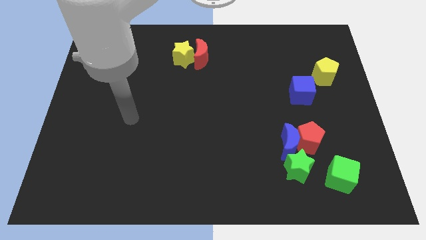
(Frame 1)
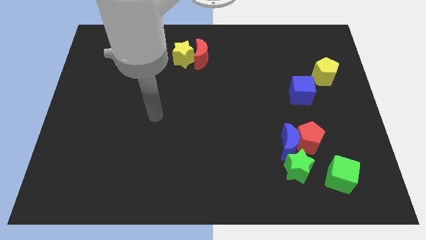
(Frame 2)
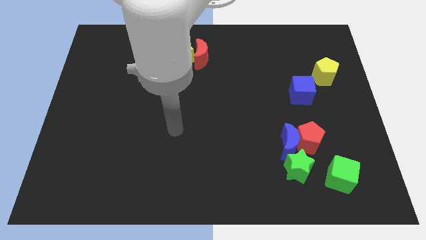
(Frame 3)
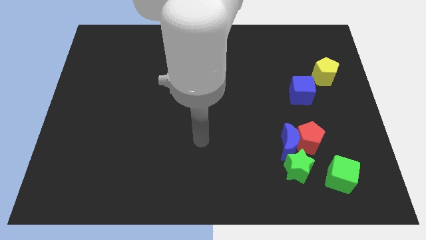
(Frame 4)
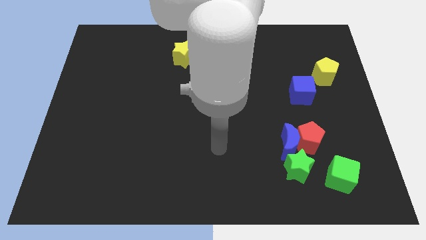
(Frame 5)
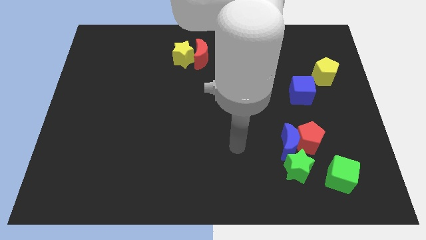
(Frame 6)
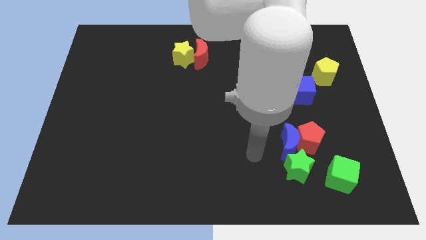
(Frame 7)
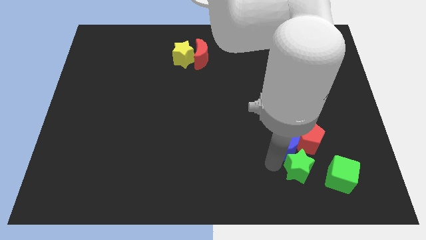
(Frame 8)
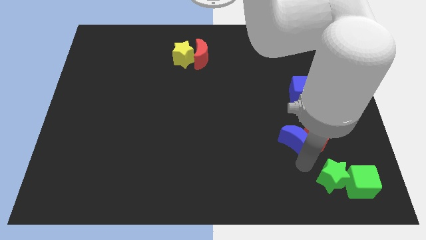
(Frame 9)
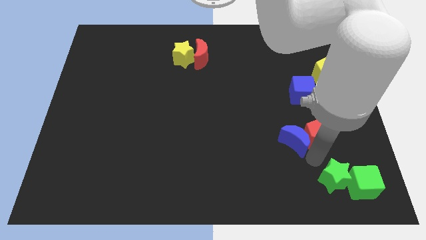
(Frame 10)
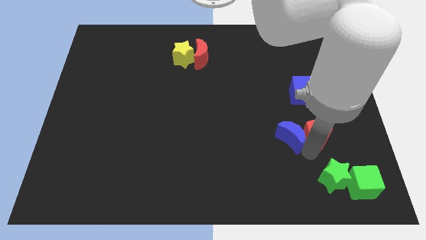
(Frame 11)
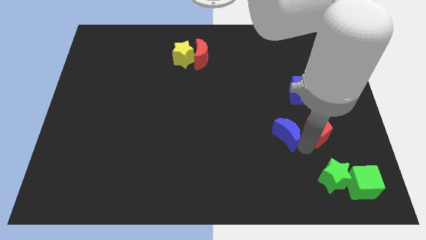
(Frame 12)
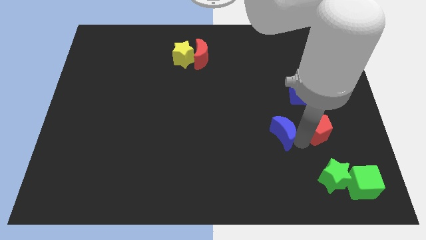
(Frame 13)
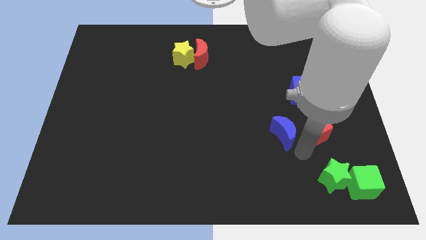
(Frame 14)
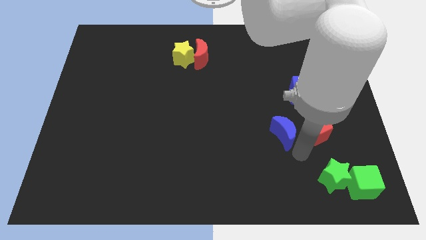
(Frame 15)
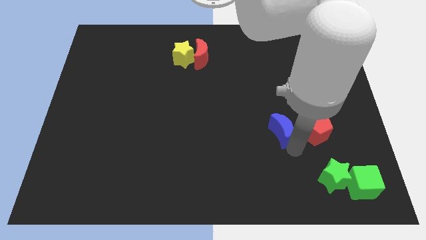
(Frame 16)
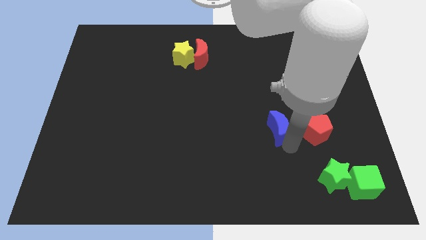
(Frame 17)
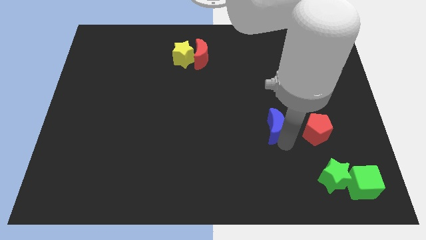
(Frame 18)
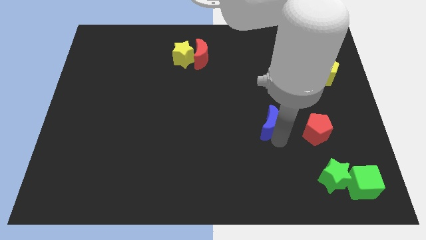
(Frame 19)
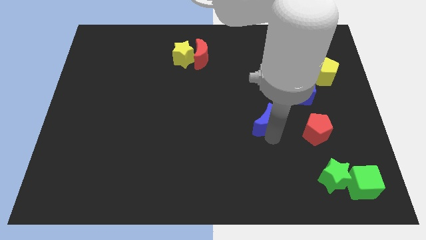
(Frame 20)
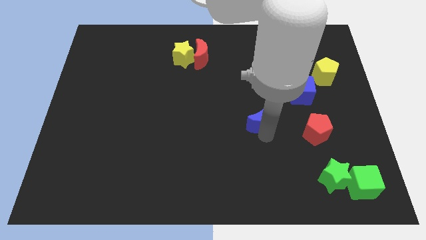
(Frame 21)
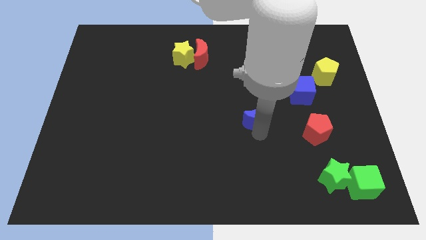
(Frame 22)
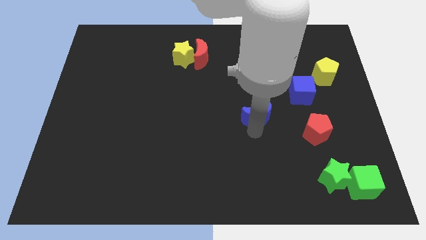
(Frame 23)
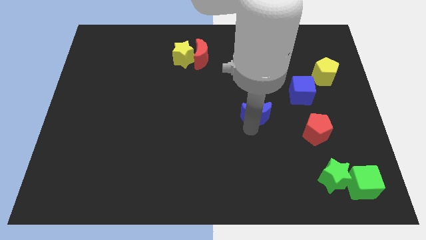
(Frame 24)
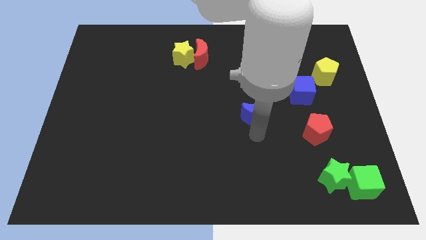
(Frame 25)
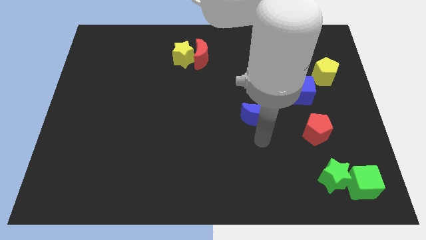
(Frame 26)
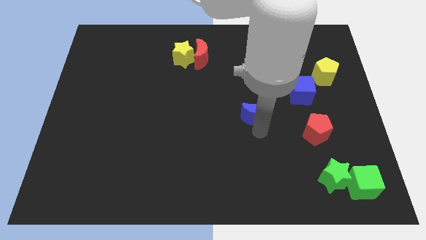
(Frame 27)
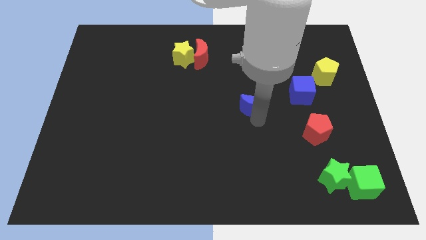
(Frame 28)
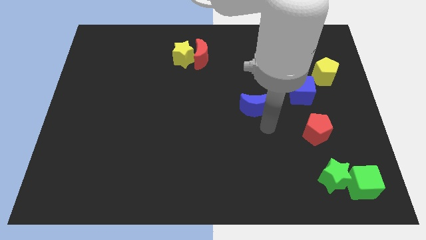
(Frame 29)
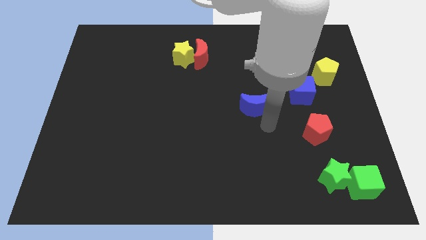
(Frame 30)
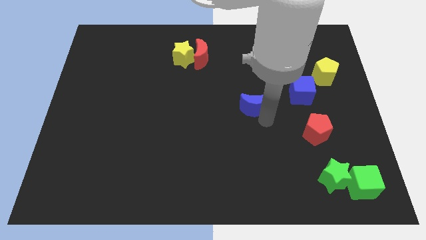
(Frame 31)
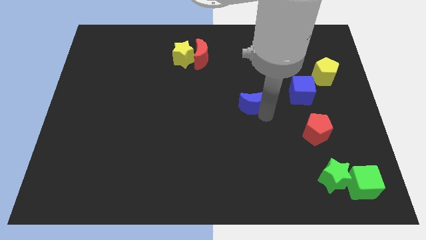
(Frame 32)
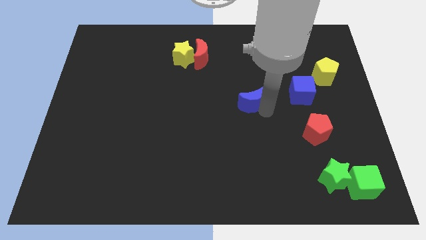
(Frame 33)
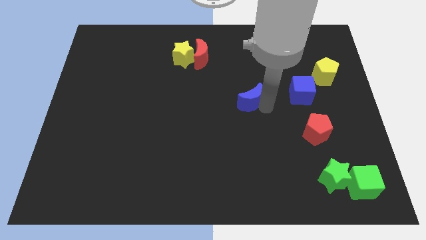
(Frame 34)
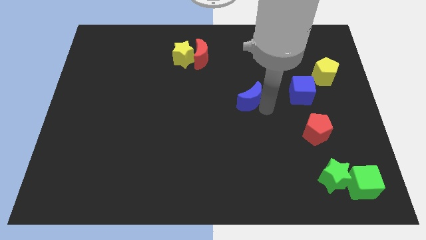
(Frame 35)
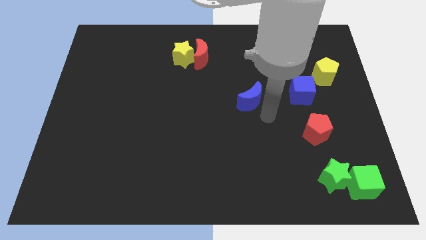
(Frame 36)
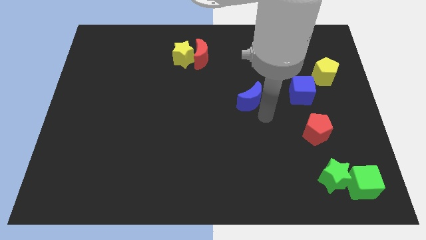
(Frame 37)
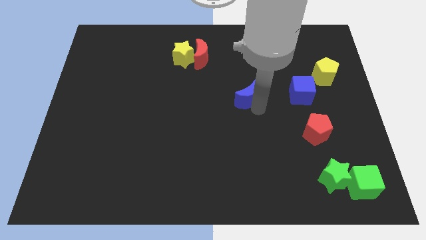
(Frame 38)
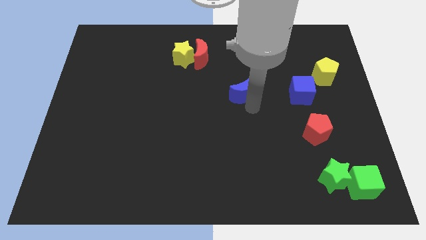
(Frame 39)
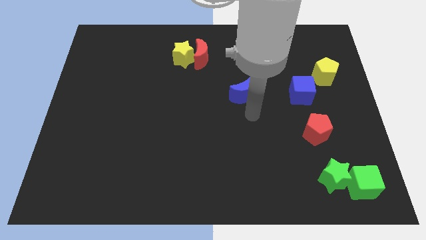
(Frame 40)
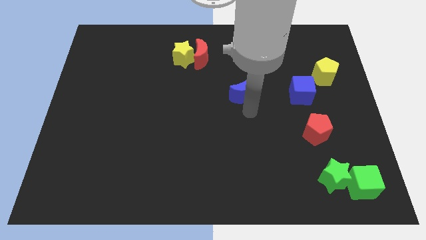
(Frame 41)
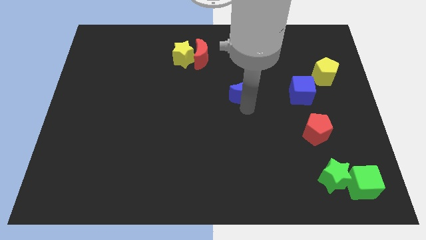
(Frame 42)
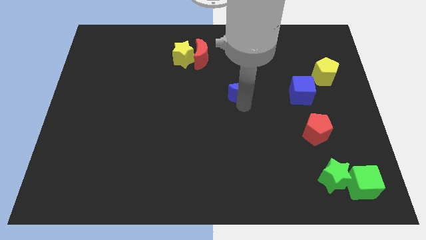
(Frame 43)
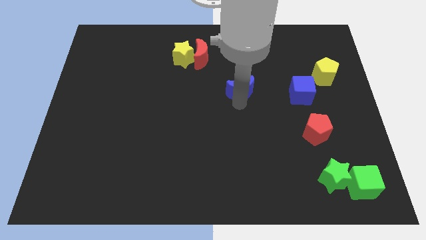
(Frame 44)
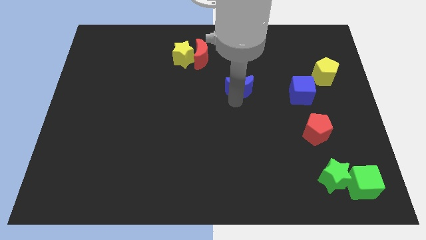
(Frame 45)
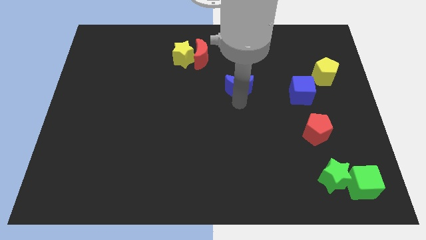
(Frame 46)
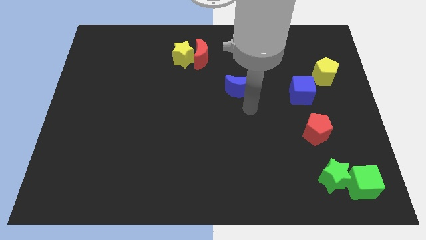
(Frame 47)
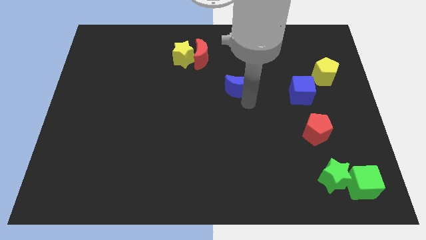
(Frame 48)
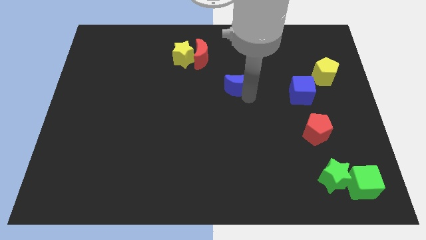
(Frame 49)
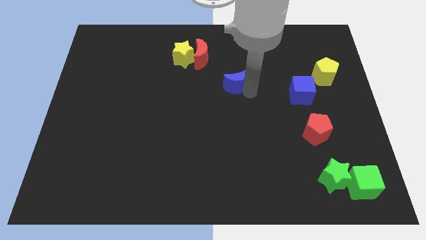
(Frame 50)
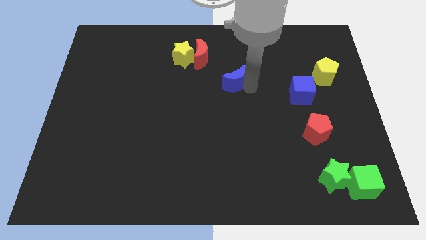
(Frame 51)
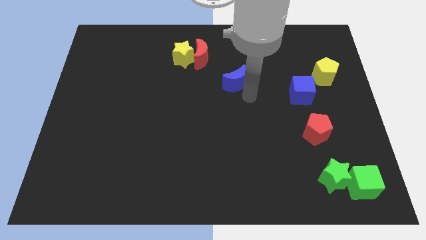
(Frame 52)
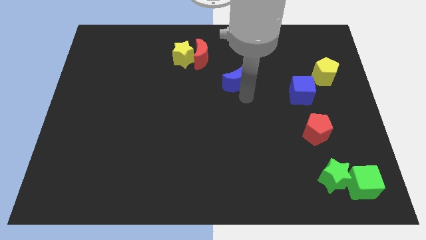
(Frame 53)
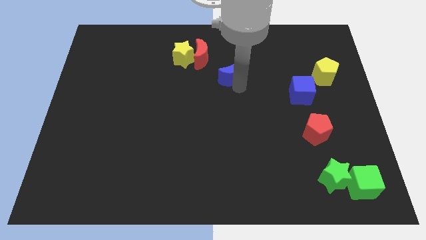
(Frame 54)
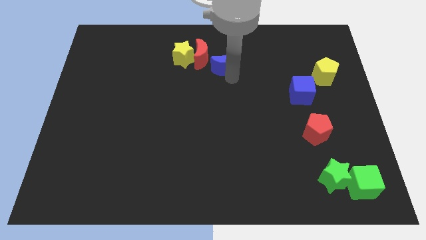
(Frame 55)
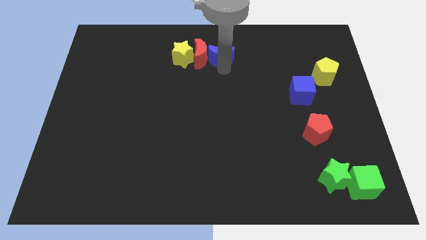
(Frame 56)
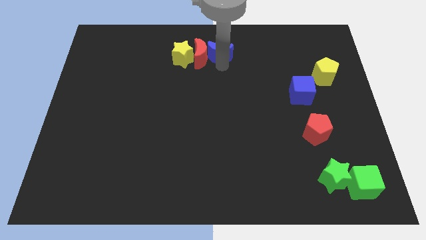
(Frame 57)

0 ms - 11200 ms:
slide the blue moon to the towards your base

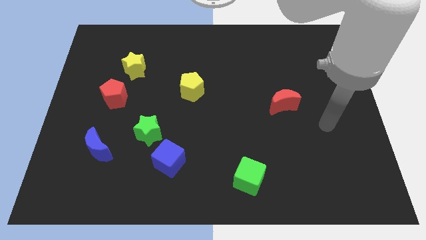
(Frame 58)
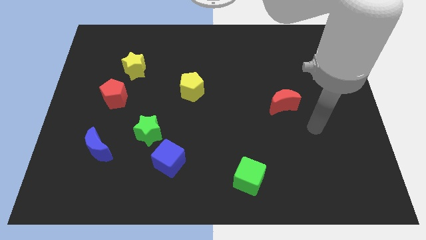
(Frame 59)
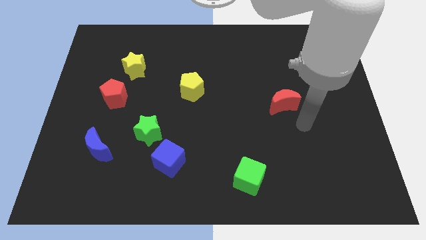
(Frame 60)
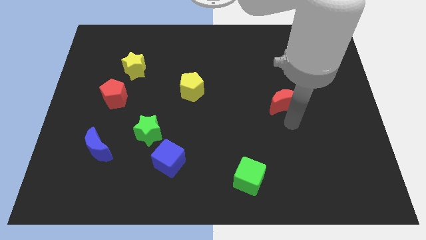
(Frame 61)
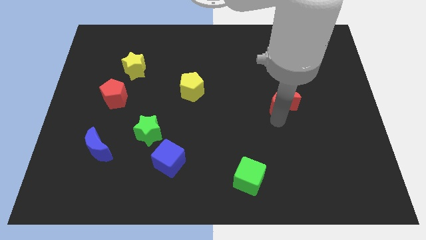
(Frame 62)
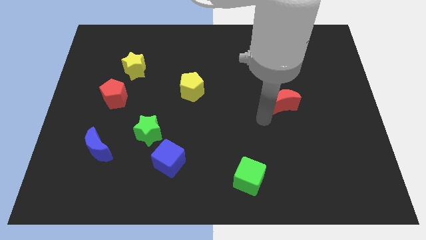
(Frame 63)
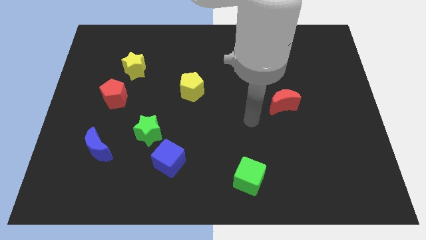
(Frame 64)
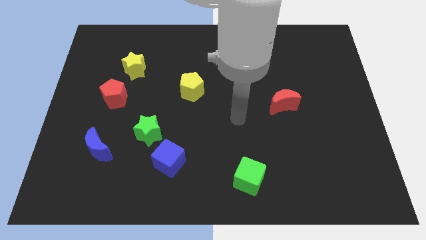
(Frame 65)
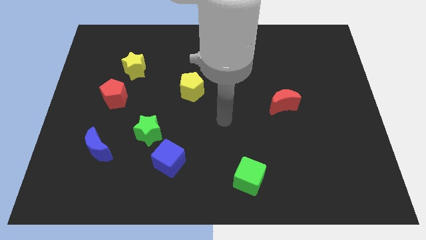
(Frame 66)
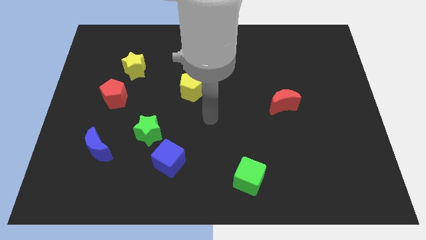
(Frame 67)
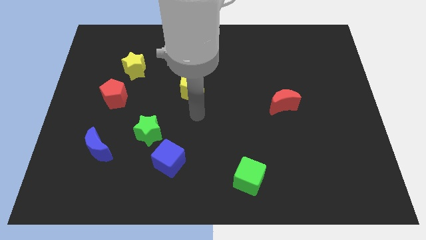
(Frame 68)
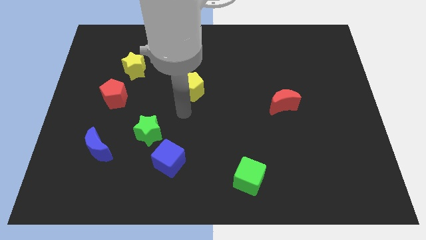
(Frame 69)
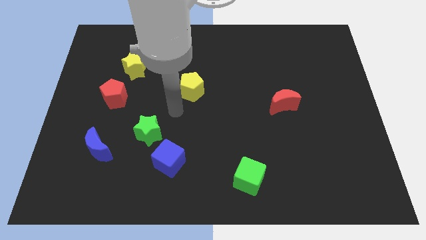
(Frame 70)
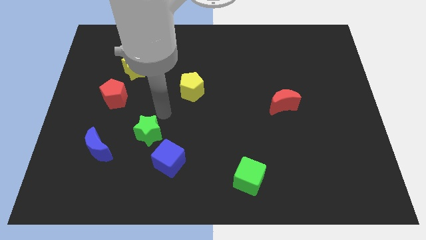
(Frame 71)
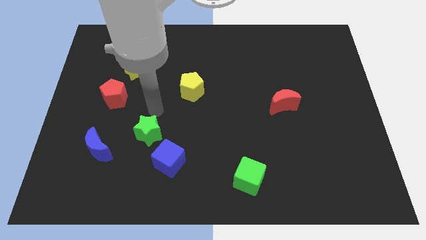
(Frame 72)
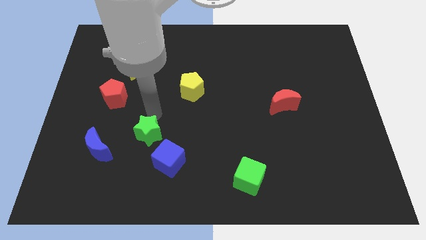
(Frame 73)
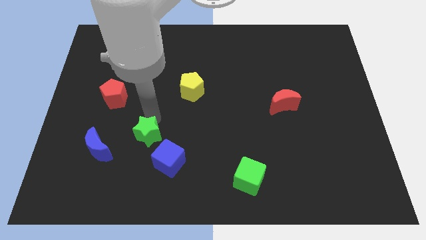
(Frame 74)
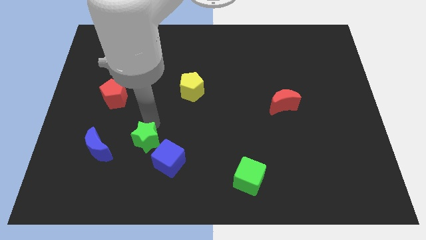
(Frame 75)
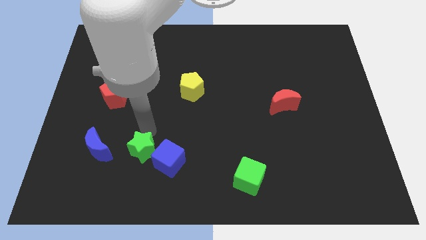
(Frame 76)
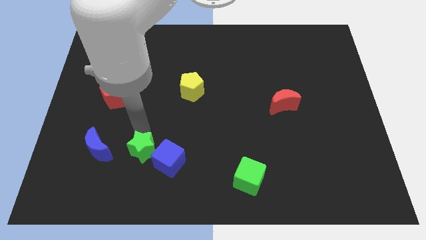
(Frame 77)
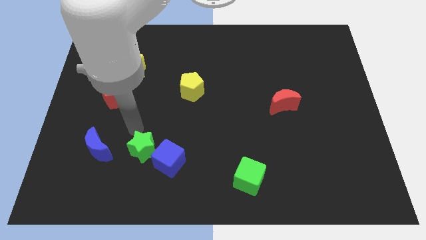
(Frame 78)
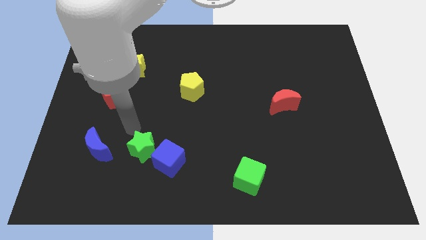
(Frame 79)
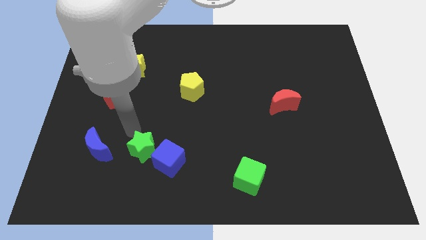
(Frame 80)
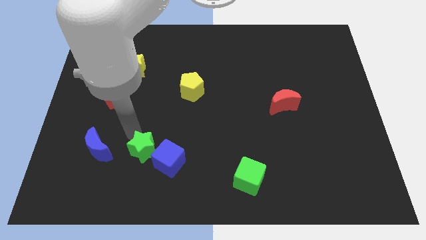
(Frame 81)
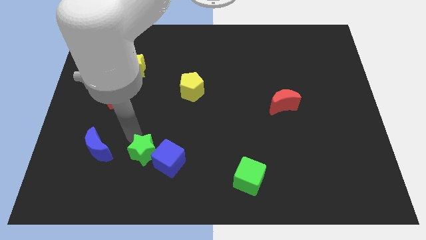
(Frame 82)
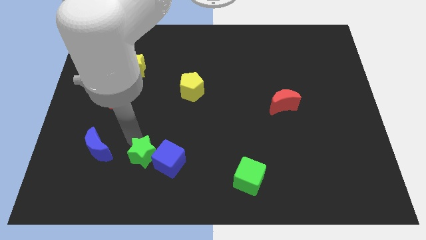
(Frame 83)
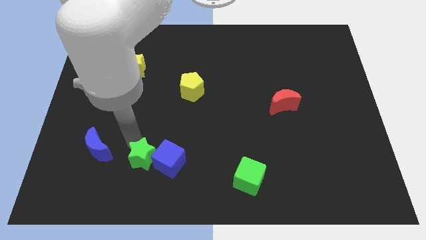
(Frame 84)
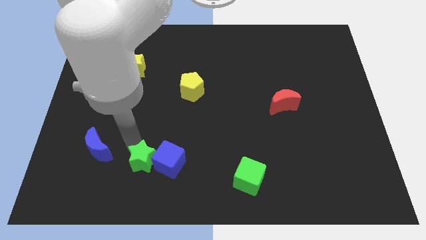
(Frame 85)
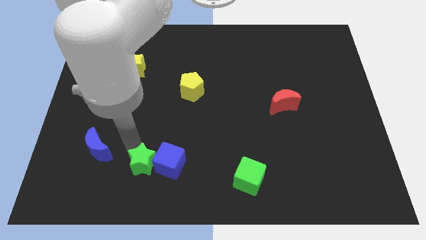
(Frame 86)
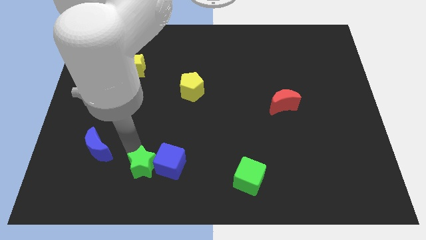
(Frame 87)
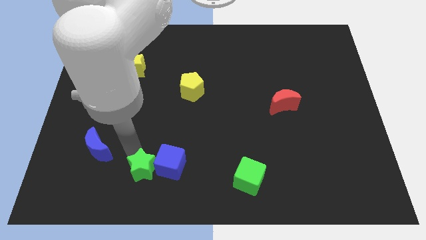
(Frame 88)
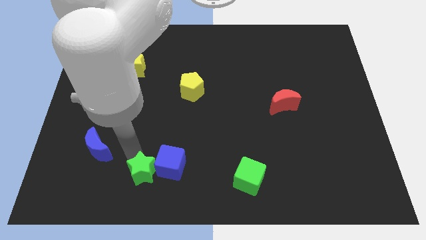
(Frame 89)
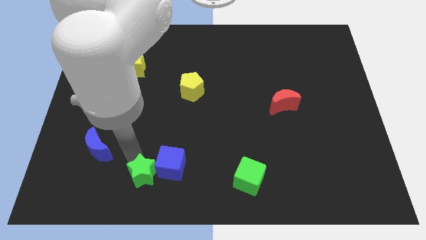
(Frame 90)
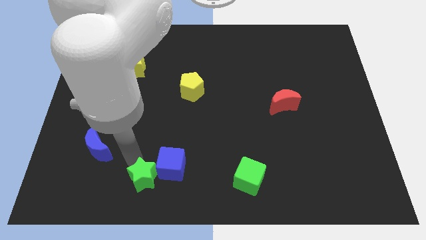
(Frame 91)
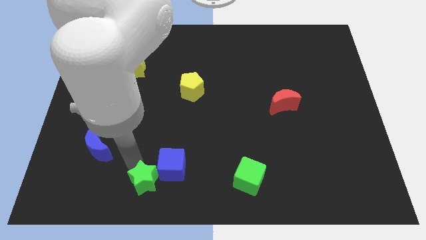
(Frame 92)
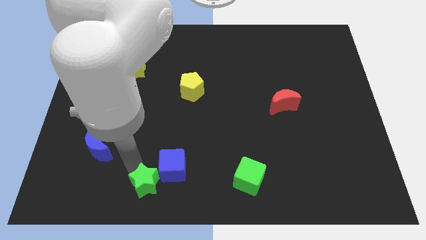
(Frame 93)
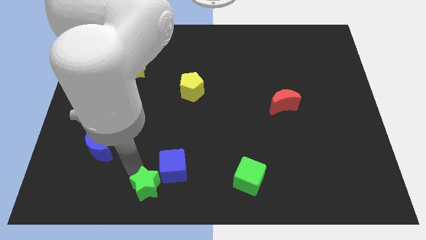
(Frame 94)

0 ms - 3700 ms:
slide the green star to the bottom
